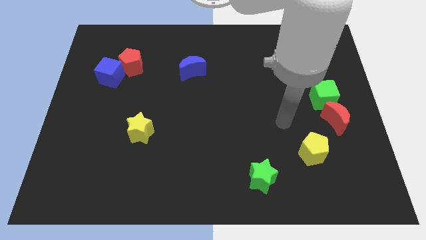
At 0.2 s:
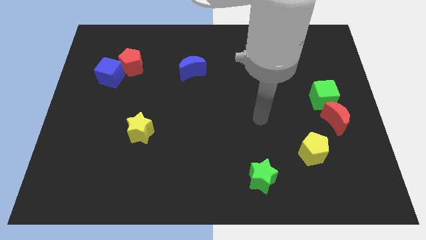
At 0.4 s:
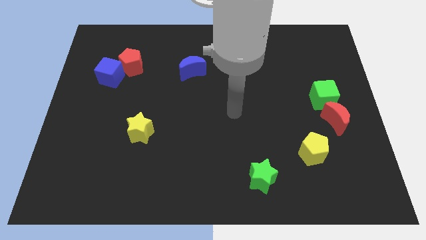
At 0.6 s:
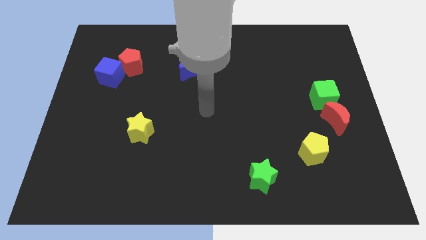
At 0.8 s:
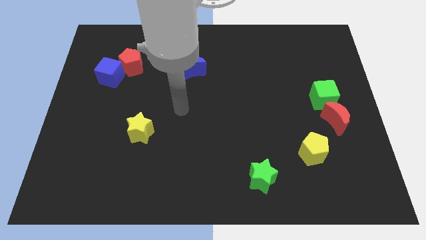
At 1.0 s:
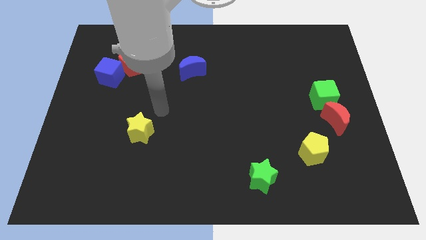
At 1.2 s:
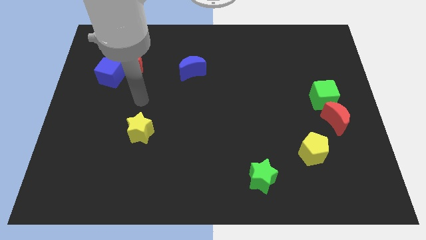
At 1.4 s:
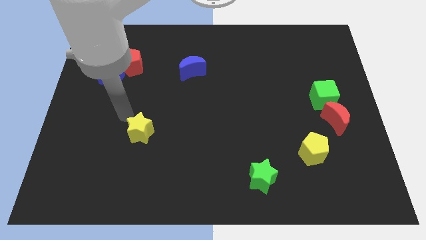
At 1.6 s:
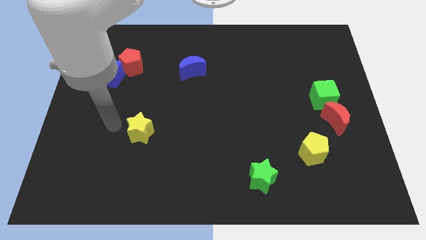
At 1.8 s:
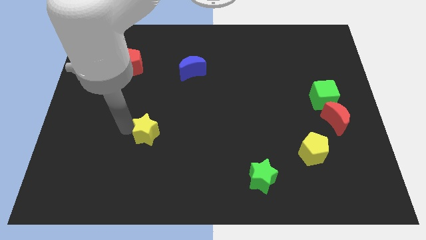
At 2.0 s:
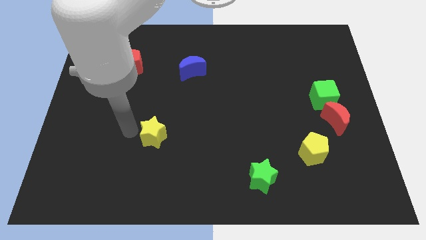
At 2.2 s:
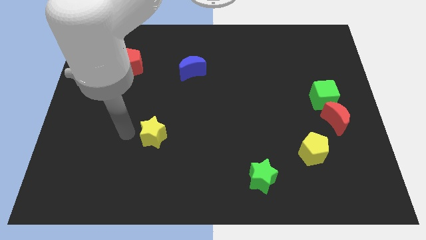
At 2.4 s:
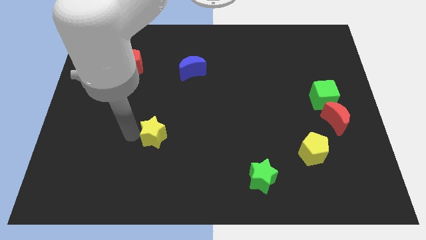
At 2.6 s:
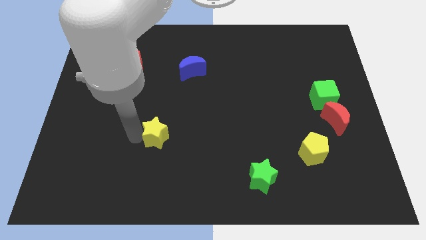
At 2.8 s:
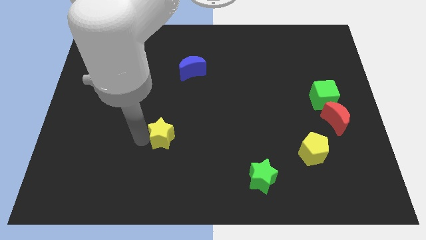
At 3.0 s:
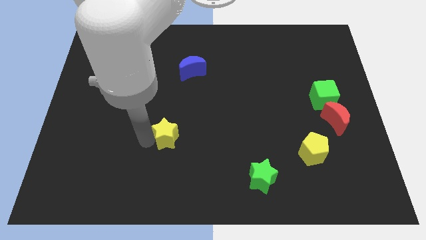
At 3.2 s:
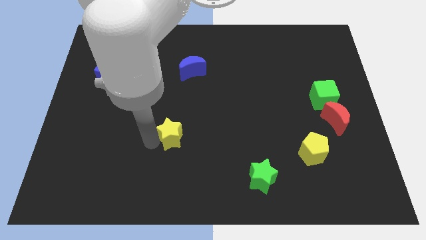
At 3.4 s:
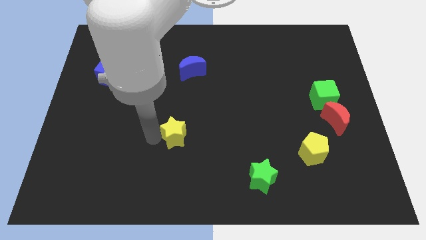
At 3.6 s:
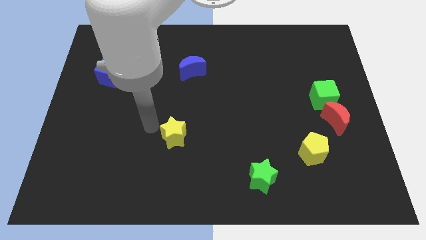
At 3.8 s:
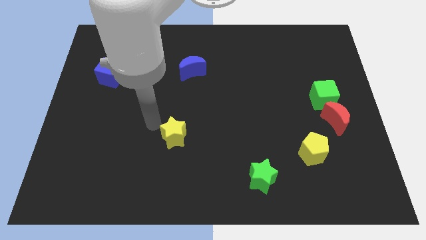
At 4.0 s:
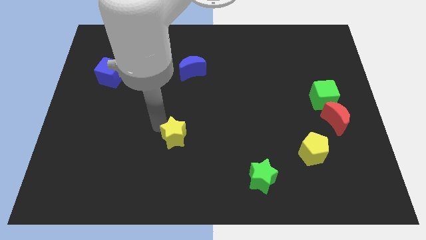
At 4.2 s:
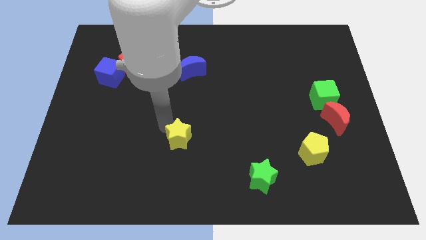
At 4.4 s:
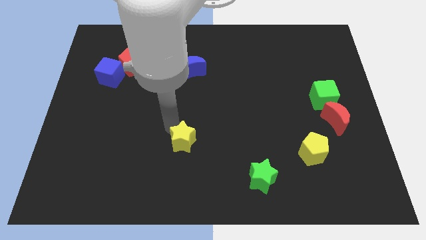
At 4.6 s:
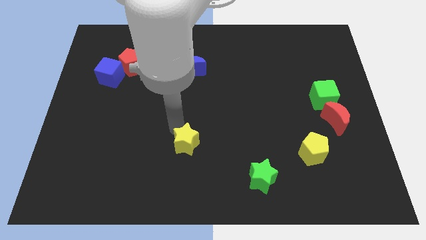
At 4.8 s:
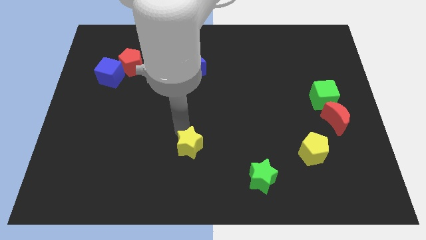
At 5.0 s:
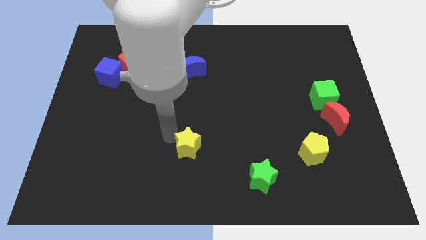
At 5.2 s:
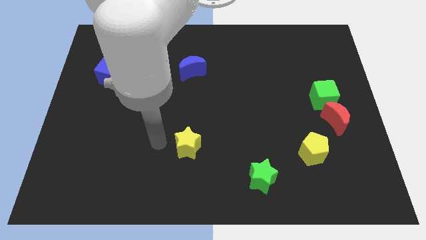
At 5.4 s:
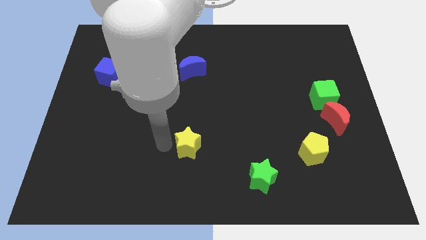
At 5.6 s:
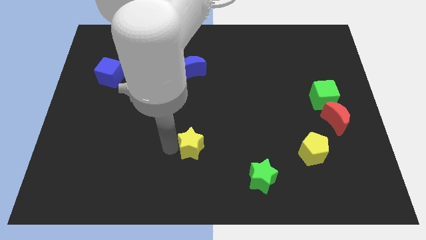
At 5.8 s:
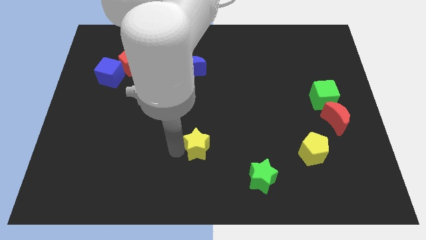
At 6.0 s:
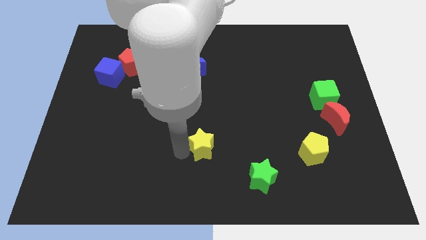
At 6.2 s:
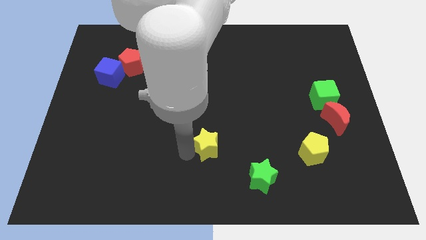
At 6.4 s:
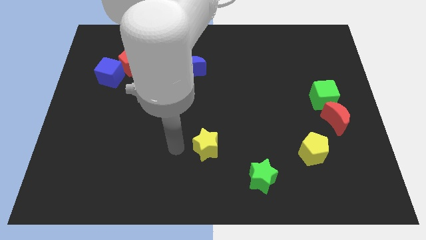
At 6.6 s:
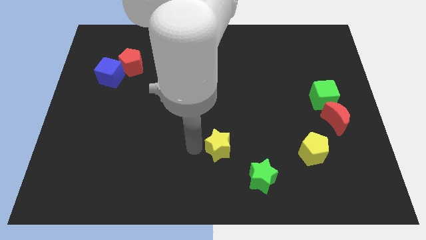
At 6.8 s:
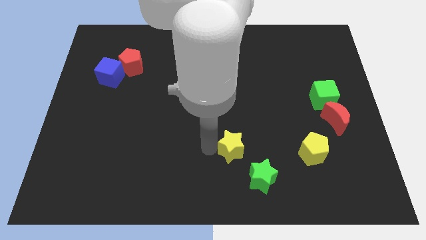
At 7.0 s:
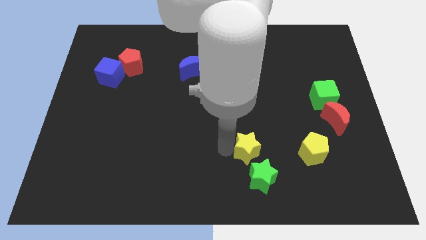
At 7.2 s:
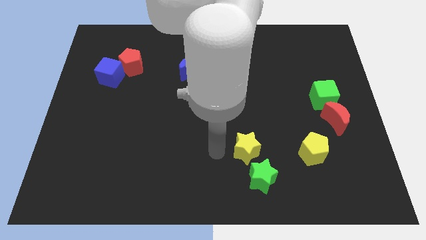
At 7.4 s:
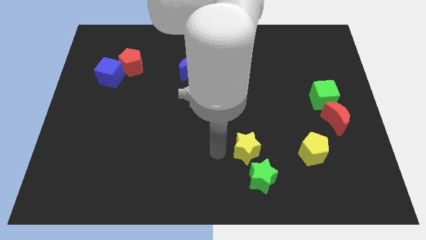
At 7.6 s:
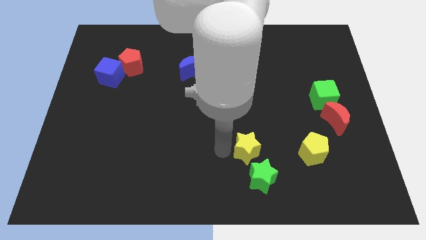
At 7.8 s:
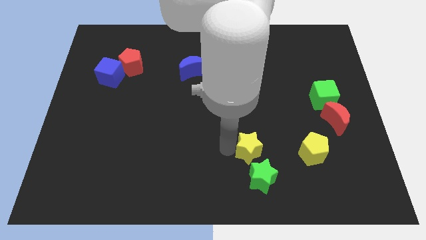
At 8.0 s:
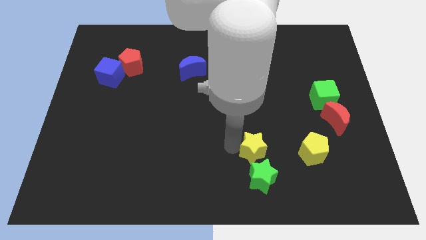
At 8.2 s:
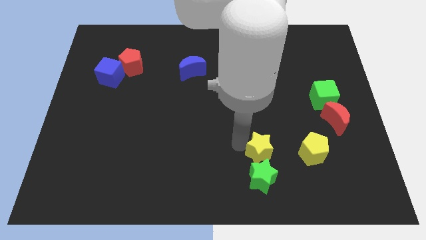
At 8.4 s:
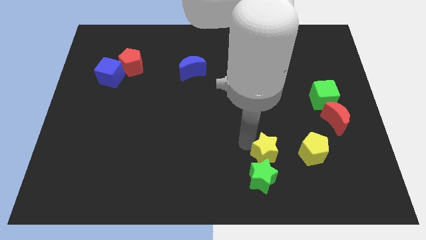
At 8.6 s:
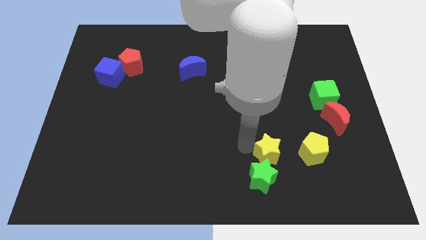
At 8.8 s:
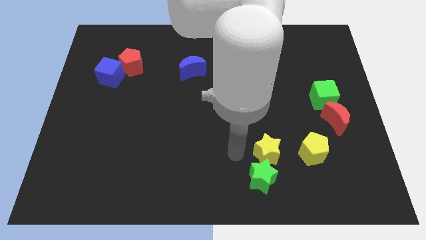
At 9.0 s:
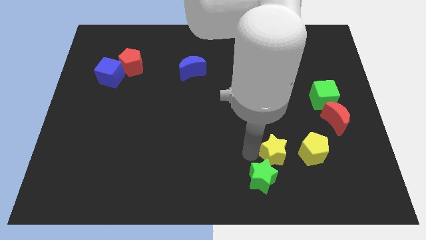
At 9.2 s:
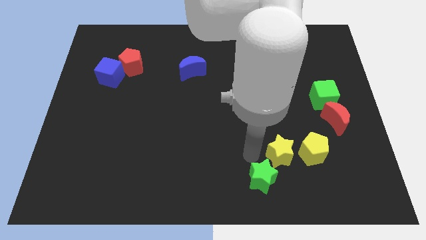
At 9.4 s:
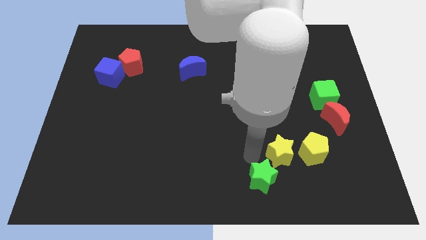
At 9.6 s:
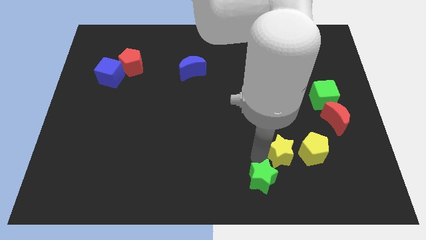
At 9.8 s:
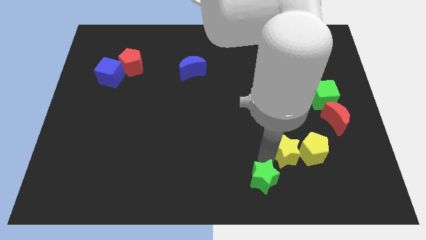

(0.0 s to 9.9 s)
push the yellow star next to the yellow pentagon

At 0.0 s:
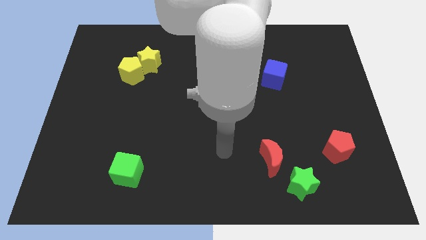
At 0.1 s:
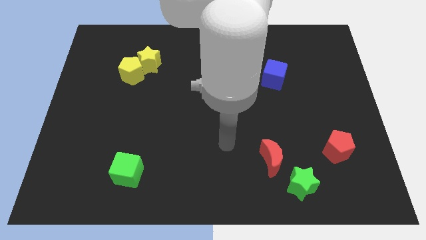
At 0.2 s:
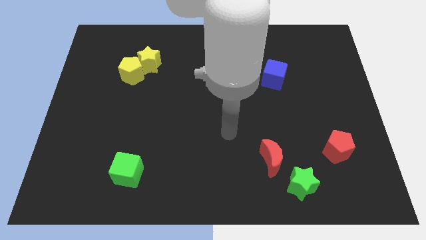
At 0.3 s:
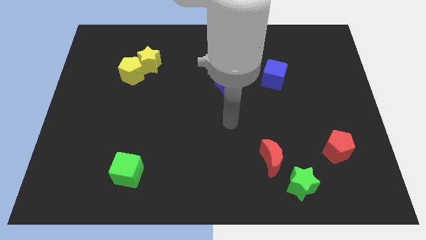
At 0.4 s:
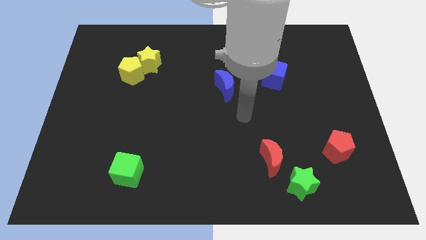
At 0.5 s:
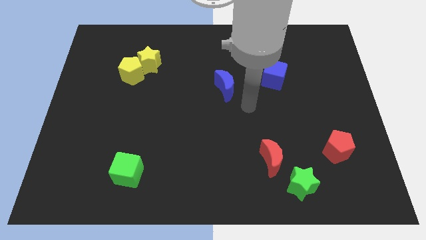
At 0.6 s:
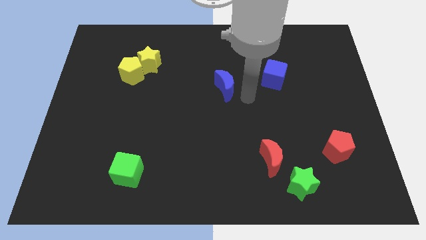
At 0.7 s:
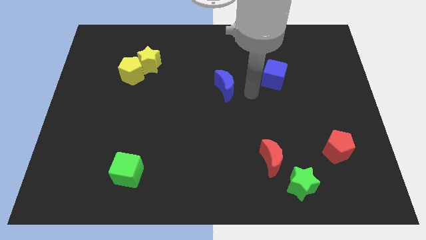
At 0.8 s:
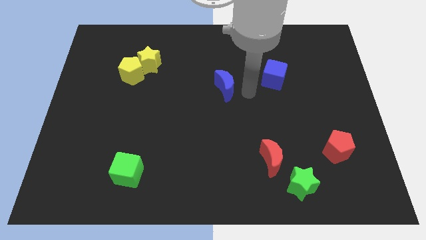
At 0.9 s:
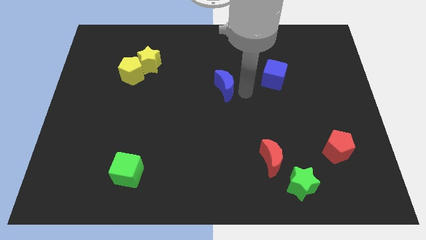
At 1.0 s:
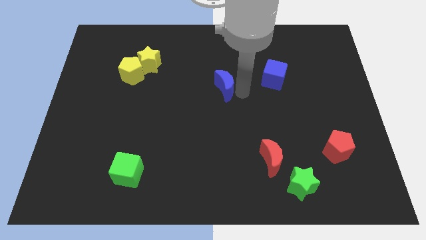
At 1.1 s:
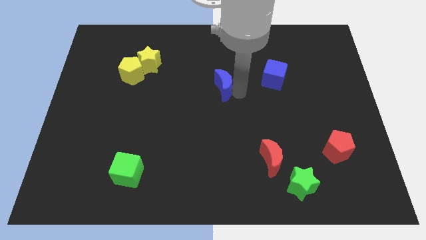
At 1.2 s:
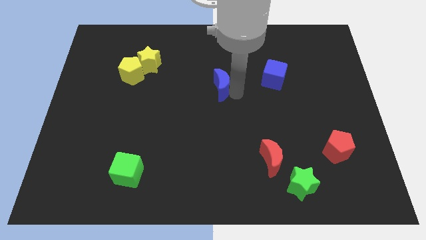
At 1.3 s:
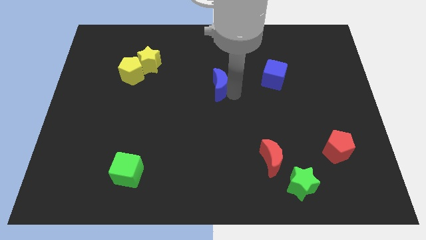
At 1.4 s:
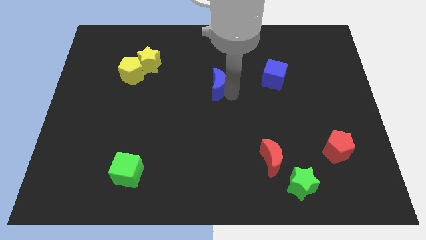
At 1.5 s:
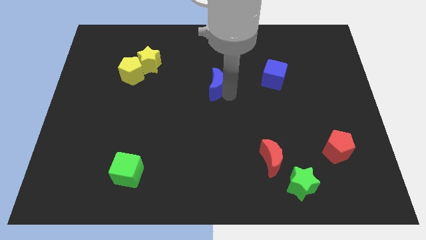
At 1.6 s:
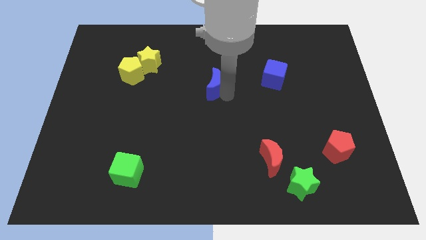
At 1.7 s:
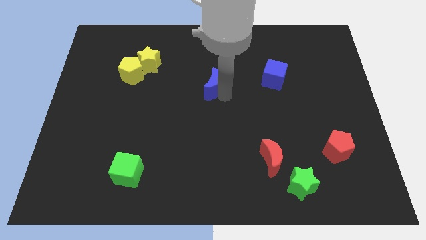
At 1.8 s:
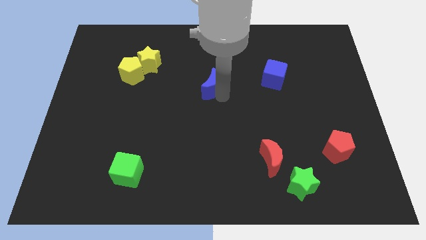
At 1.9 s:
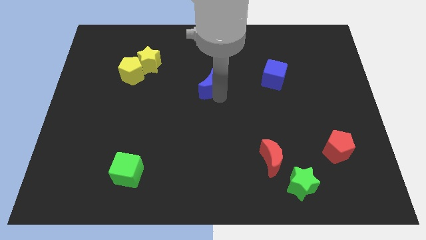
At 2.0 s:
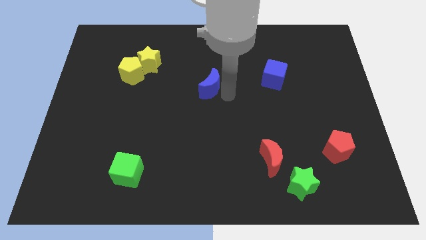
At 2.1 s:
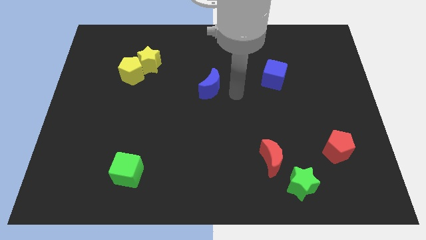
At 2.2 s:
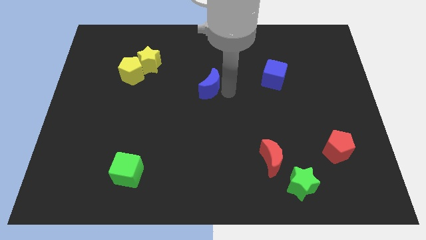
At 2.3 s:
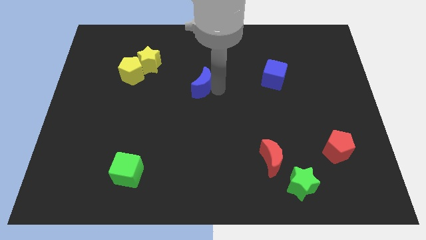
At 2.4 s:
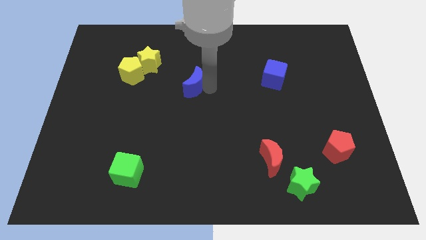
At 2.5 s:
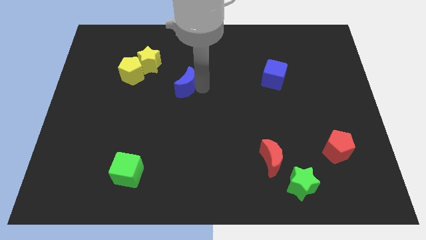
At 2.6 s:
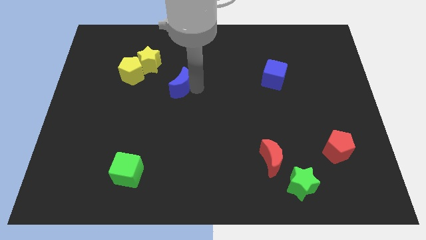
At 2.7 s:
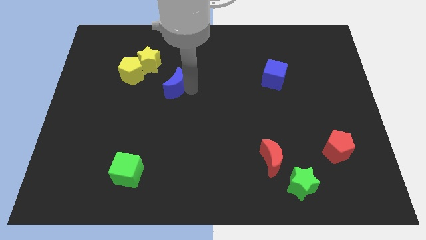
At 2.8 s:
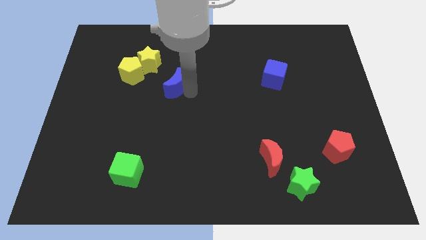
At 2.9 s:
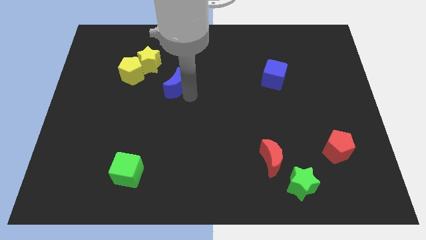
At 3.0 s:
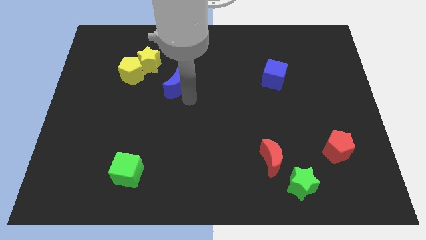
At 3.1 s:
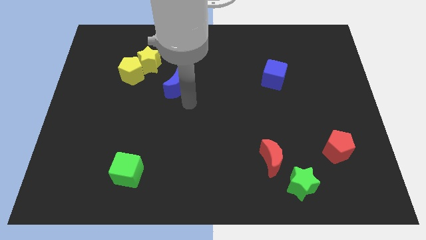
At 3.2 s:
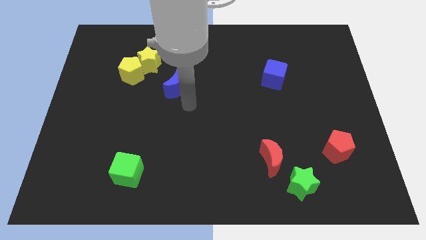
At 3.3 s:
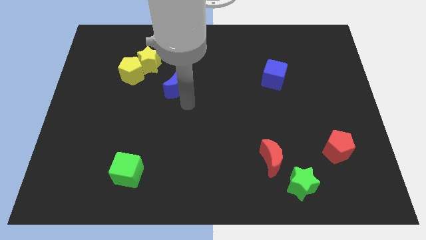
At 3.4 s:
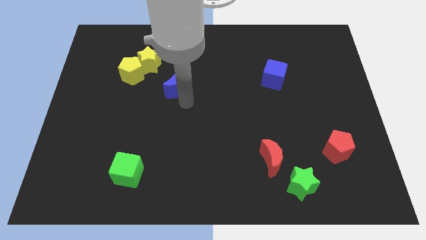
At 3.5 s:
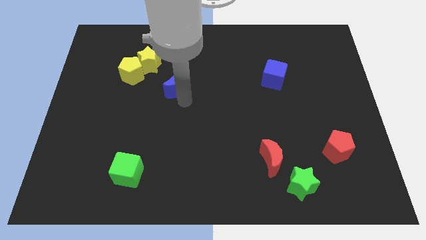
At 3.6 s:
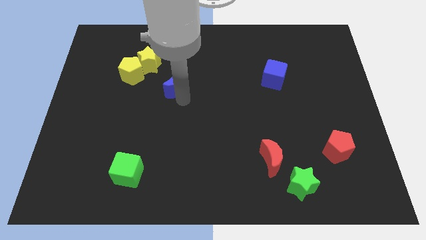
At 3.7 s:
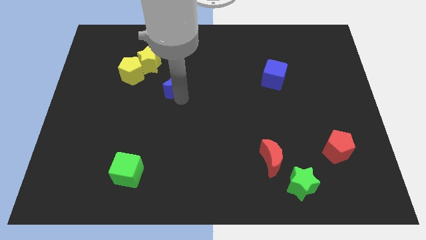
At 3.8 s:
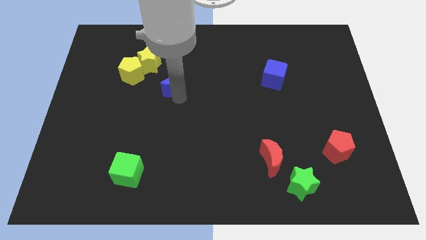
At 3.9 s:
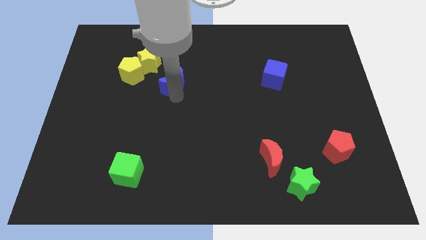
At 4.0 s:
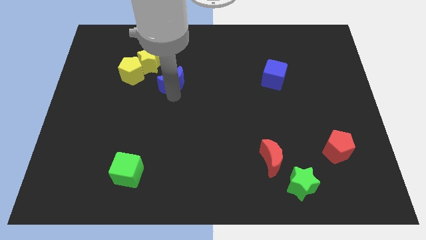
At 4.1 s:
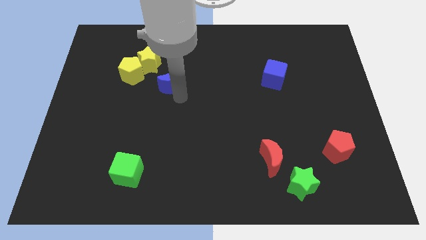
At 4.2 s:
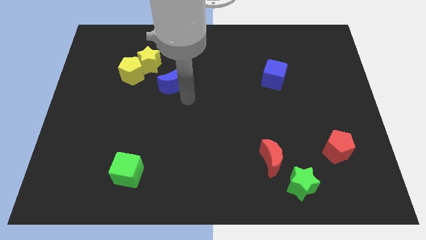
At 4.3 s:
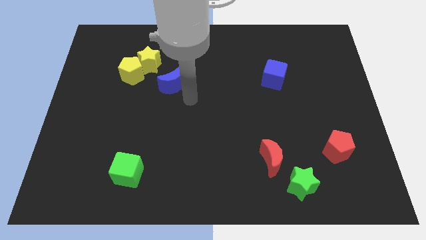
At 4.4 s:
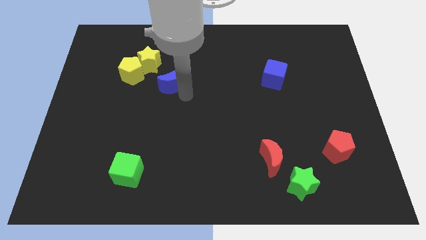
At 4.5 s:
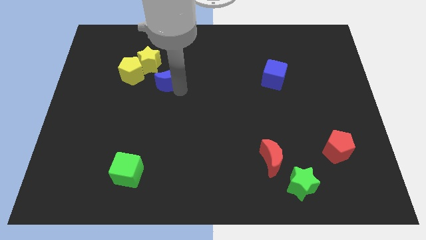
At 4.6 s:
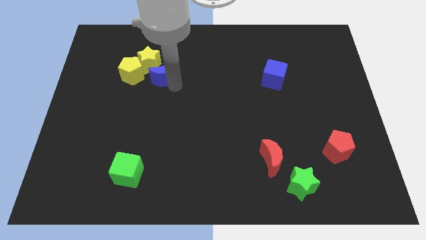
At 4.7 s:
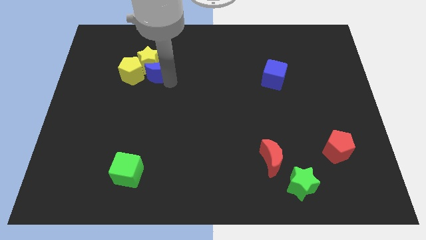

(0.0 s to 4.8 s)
put the blue moon close to the yellow star
